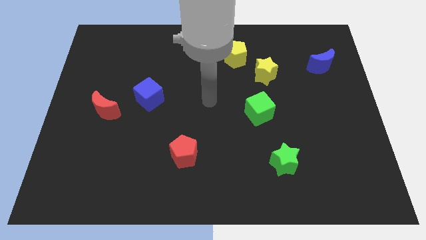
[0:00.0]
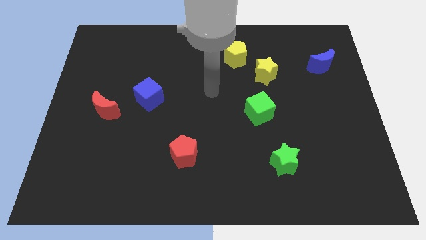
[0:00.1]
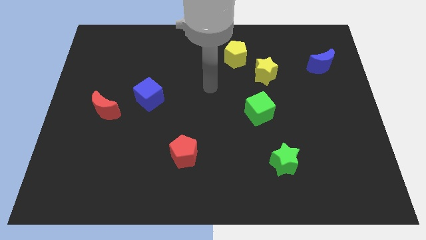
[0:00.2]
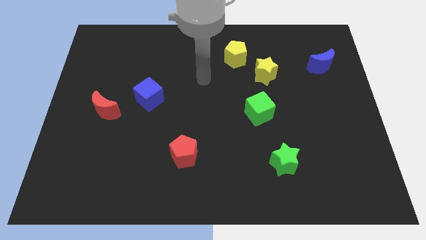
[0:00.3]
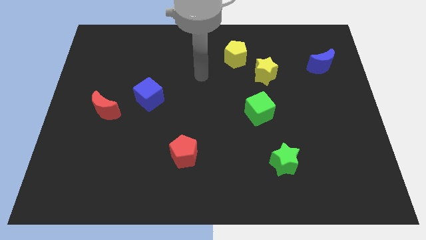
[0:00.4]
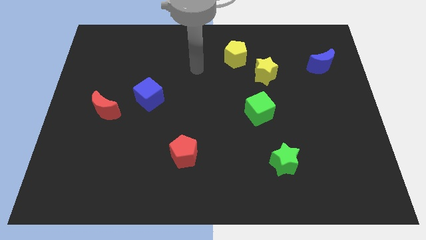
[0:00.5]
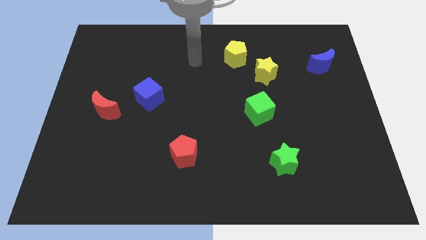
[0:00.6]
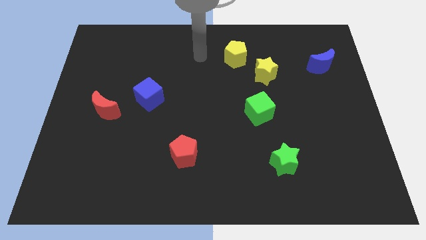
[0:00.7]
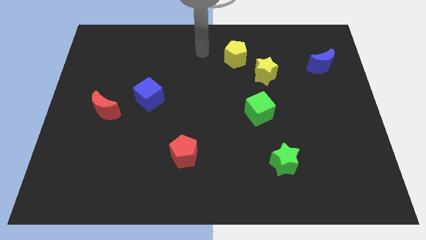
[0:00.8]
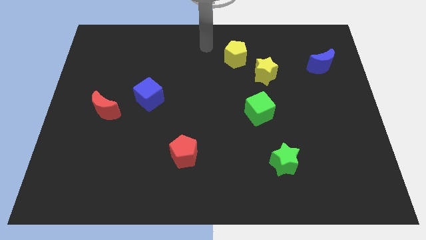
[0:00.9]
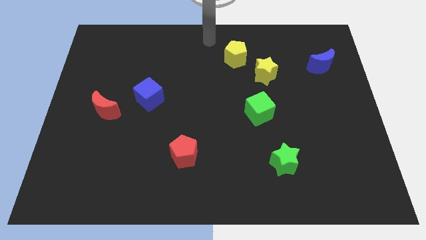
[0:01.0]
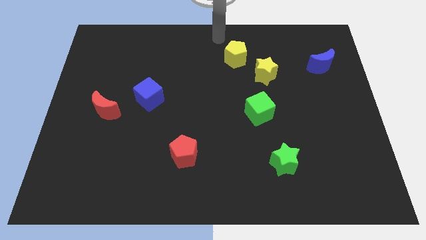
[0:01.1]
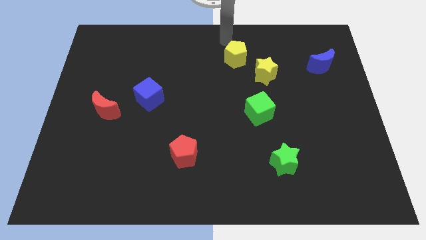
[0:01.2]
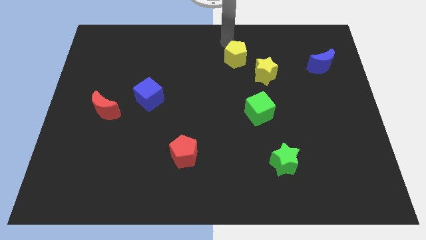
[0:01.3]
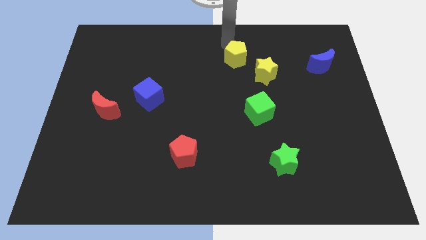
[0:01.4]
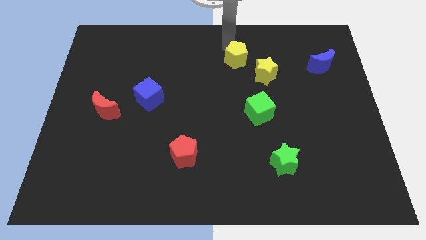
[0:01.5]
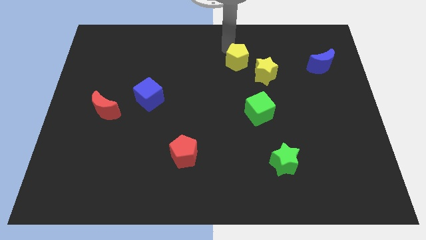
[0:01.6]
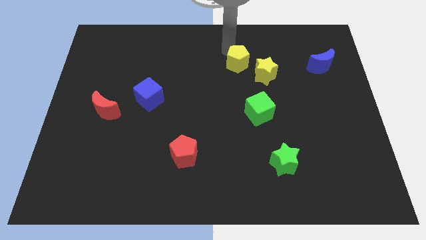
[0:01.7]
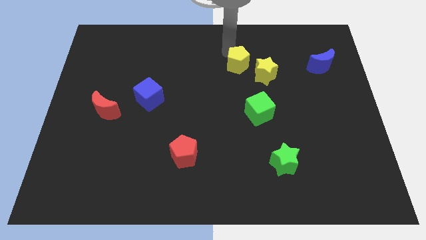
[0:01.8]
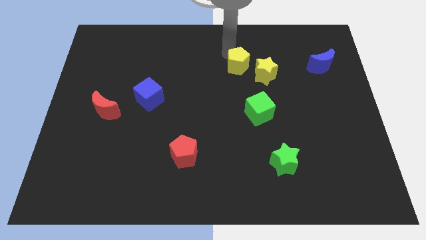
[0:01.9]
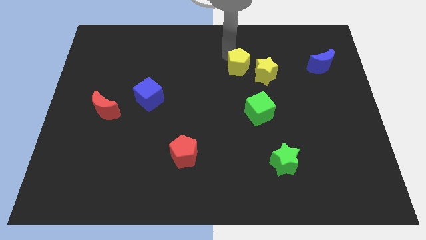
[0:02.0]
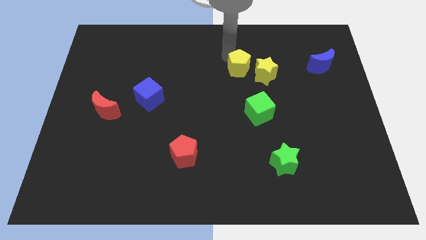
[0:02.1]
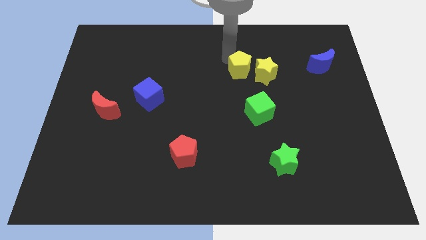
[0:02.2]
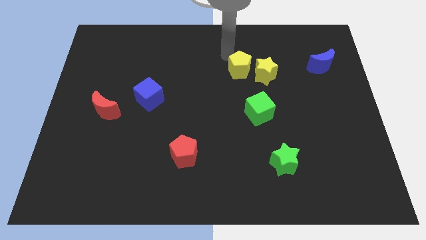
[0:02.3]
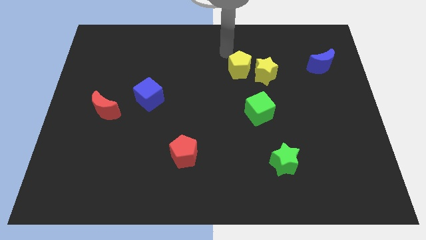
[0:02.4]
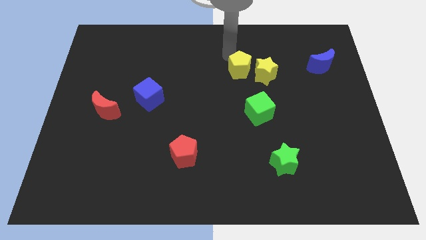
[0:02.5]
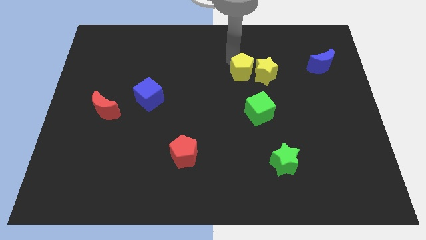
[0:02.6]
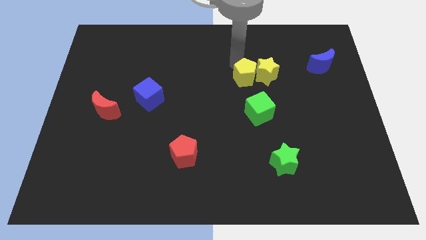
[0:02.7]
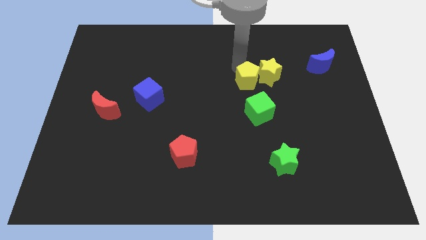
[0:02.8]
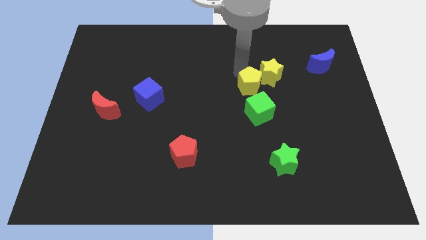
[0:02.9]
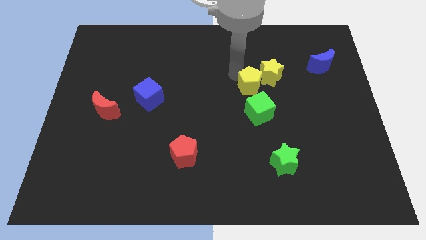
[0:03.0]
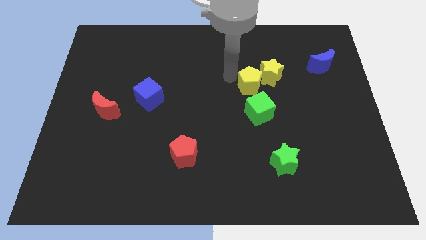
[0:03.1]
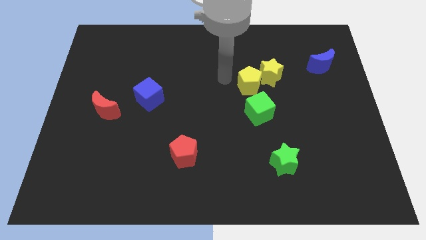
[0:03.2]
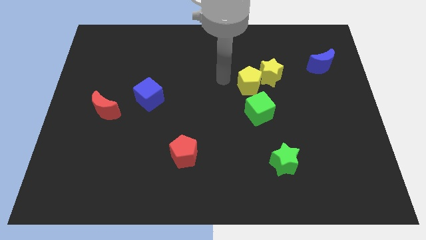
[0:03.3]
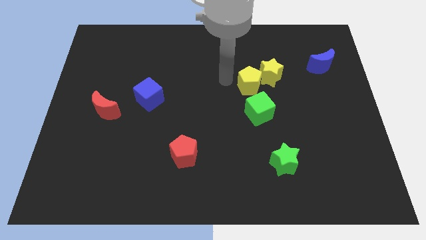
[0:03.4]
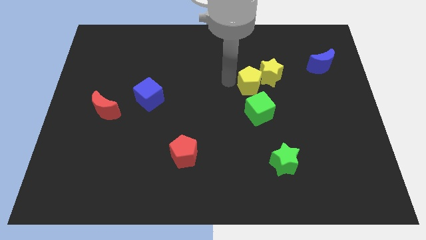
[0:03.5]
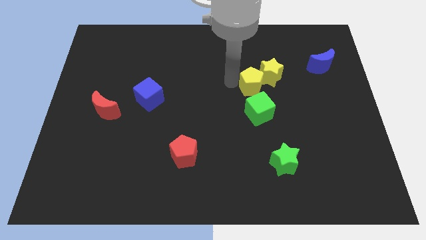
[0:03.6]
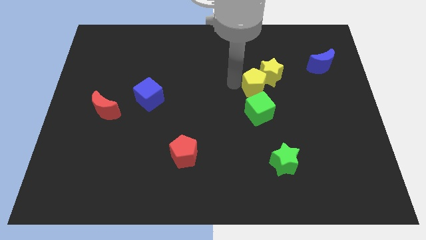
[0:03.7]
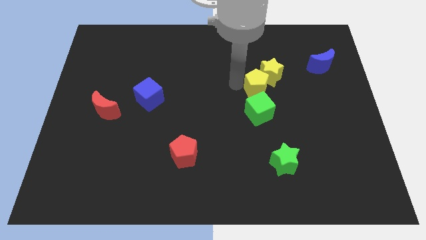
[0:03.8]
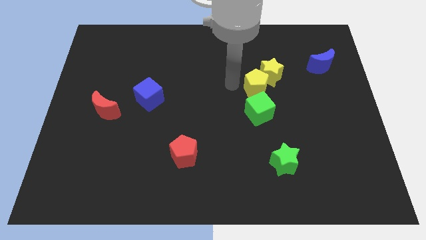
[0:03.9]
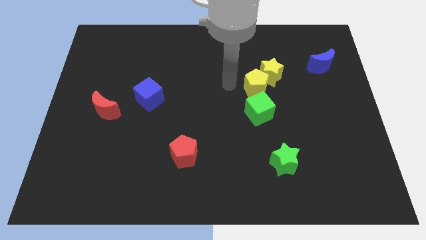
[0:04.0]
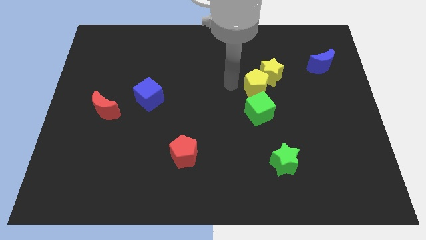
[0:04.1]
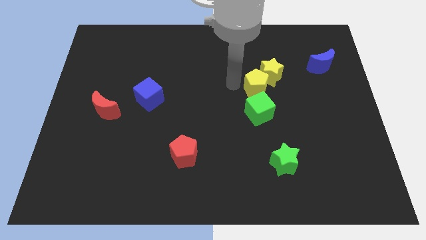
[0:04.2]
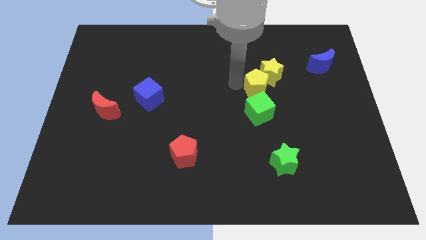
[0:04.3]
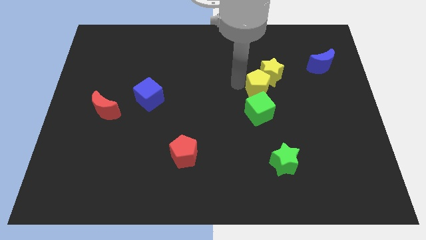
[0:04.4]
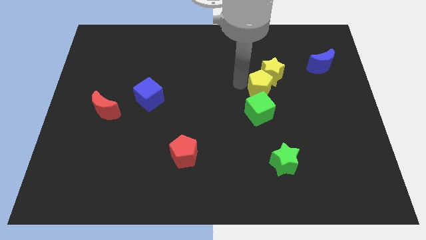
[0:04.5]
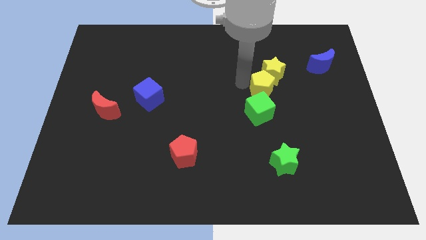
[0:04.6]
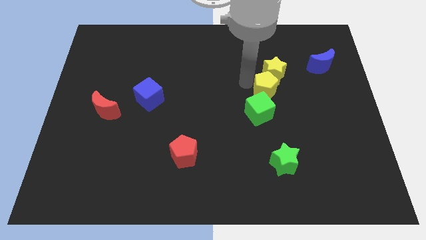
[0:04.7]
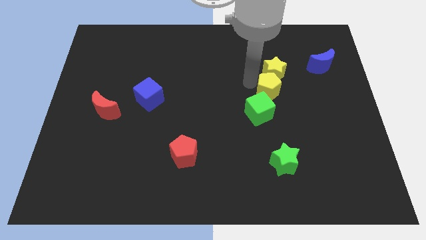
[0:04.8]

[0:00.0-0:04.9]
slide the yellow pentagon to the bottom right side of the yellow star

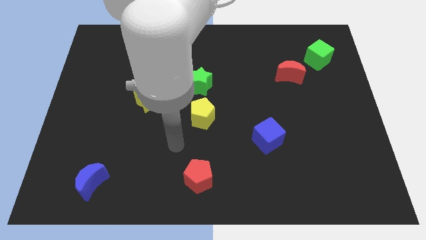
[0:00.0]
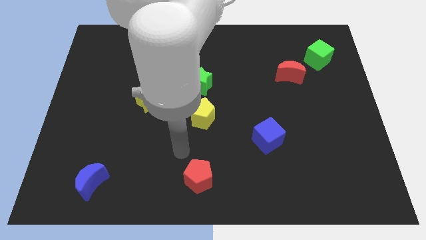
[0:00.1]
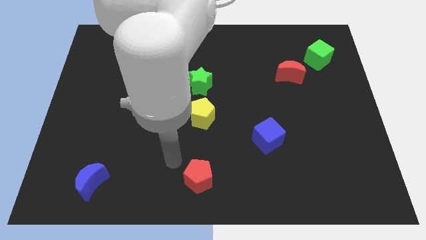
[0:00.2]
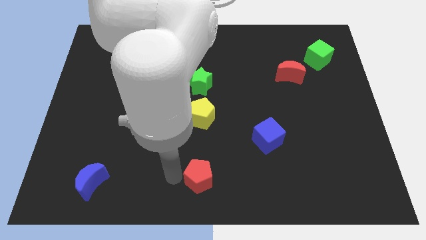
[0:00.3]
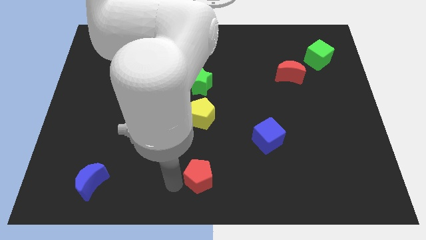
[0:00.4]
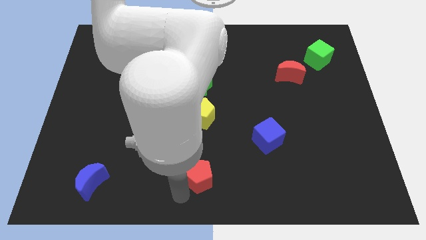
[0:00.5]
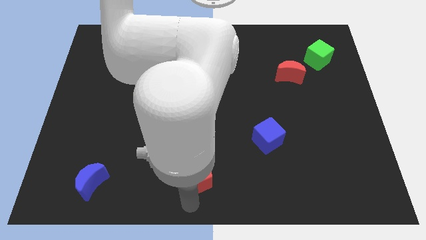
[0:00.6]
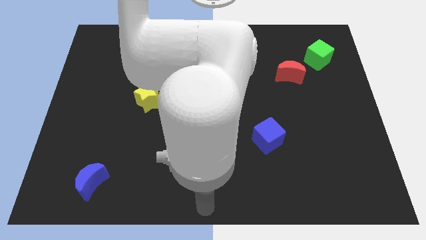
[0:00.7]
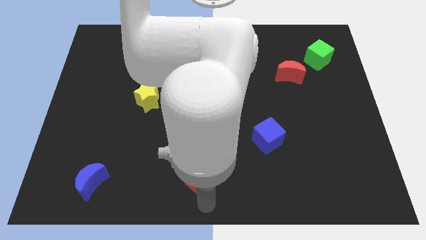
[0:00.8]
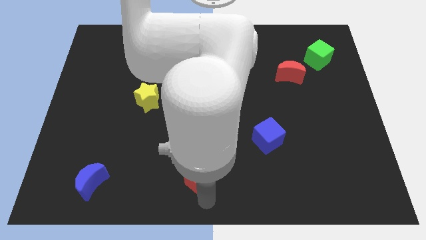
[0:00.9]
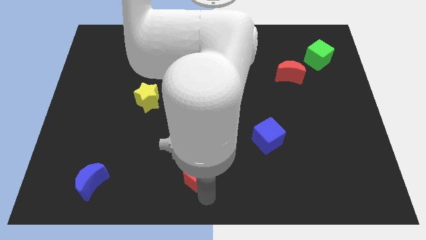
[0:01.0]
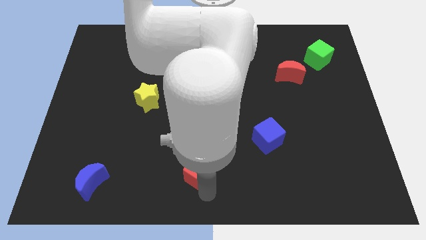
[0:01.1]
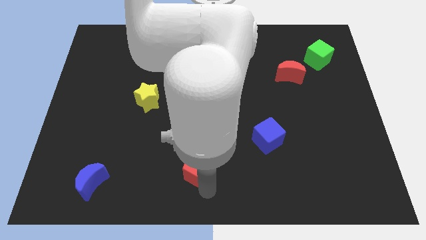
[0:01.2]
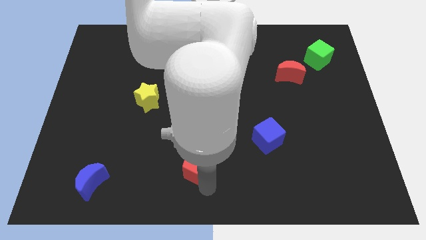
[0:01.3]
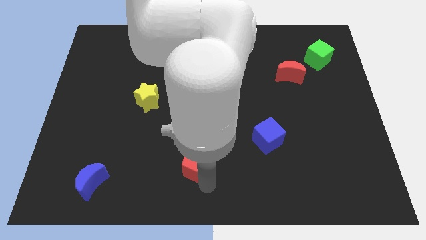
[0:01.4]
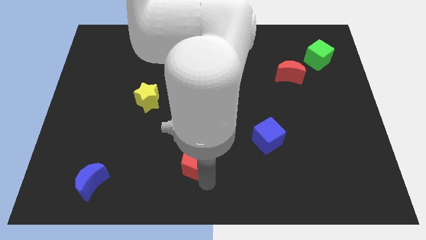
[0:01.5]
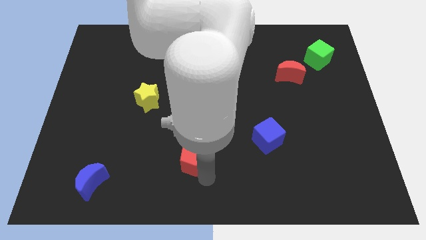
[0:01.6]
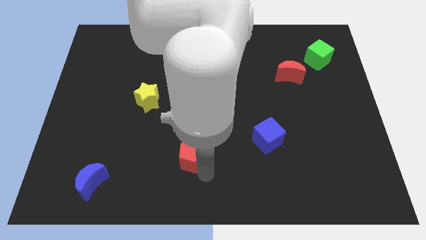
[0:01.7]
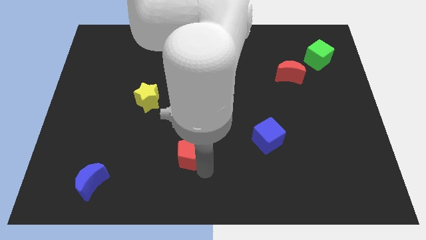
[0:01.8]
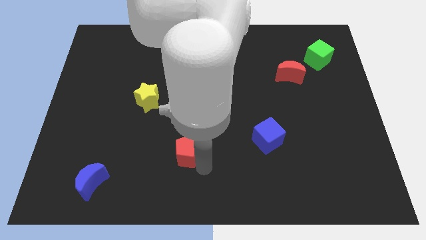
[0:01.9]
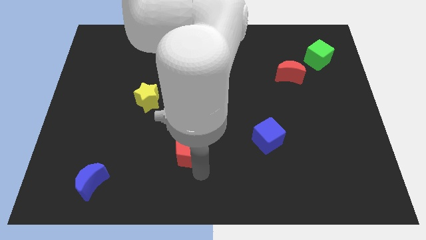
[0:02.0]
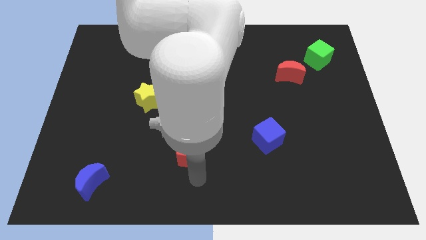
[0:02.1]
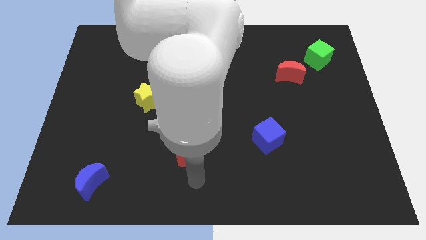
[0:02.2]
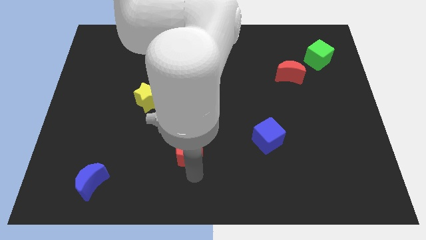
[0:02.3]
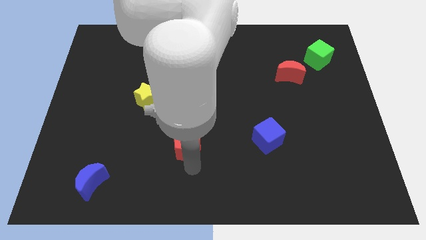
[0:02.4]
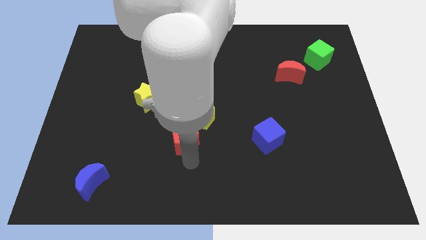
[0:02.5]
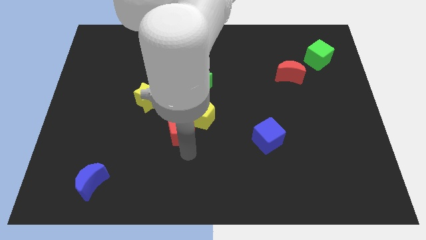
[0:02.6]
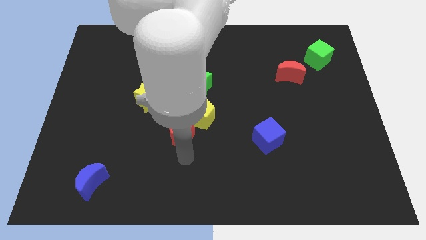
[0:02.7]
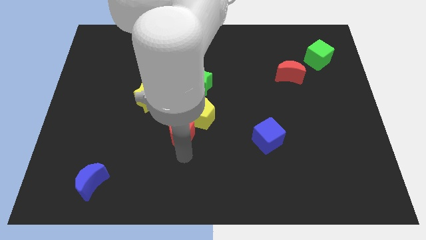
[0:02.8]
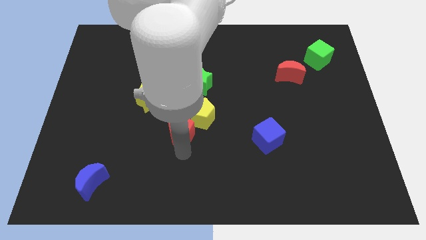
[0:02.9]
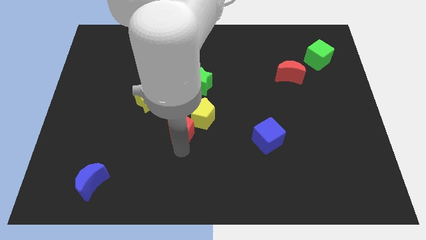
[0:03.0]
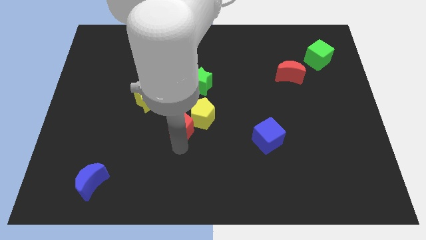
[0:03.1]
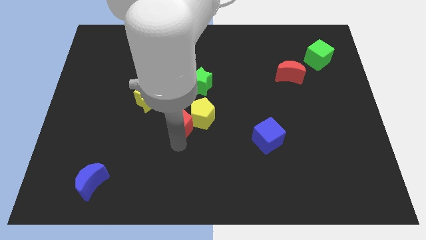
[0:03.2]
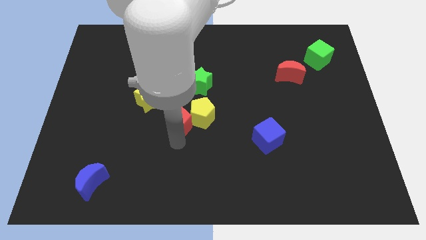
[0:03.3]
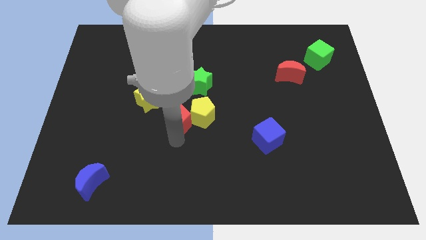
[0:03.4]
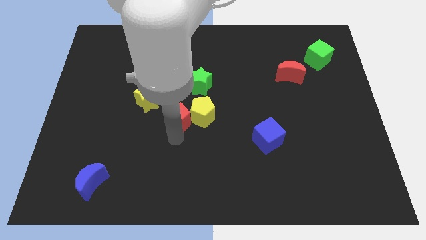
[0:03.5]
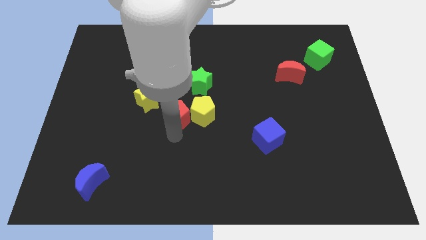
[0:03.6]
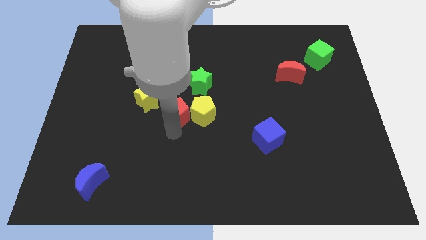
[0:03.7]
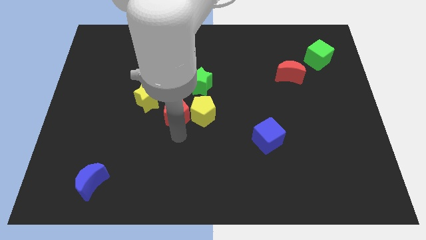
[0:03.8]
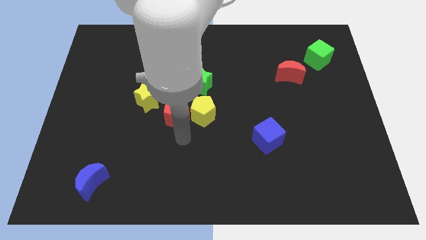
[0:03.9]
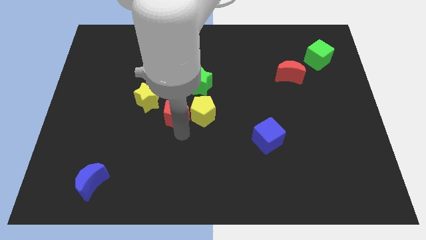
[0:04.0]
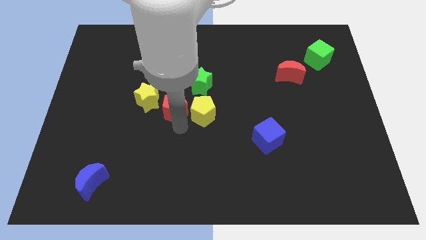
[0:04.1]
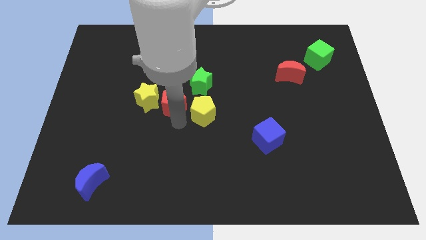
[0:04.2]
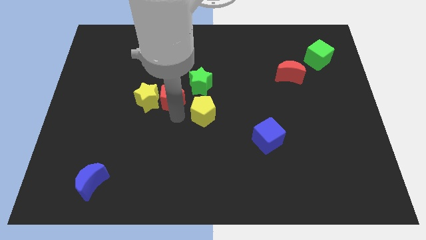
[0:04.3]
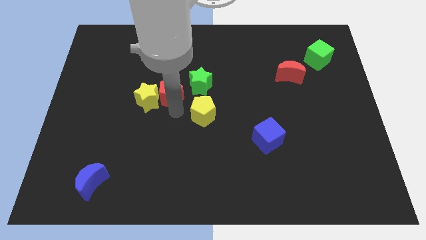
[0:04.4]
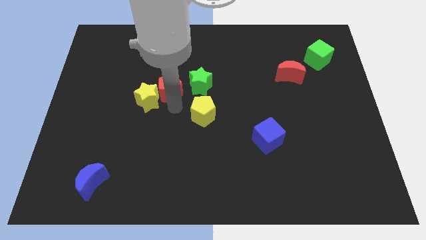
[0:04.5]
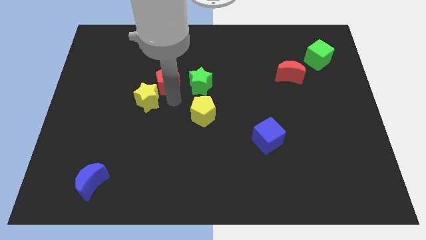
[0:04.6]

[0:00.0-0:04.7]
put the red pentagon to the top side of the yellow star
